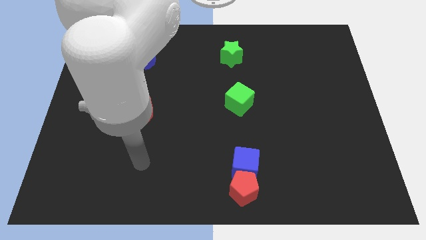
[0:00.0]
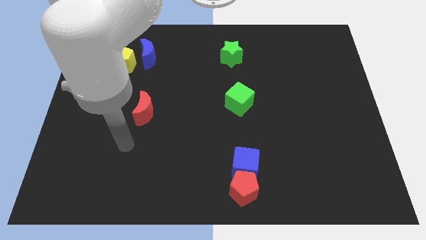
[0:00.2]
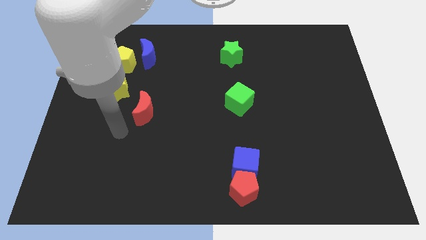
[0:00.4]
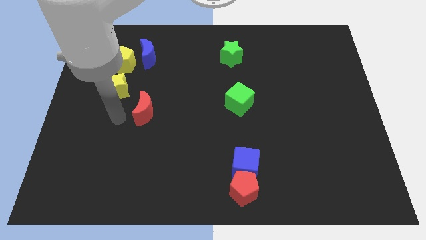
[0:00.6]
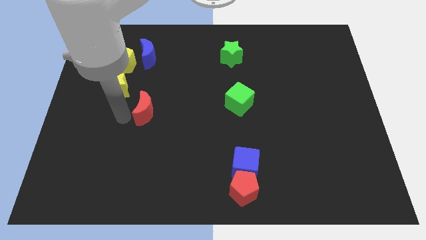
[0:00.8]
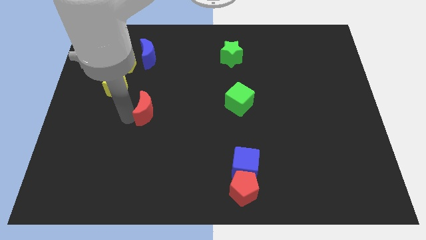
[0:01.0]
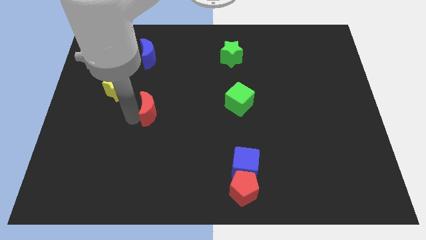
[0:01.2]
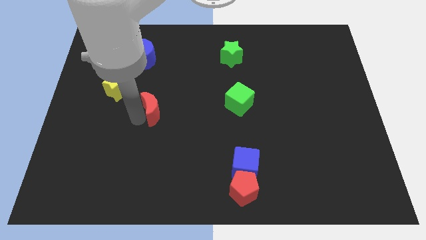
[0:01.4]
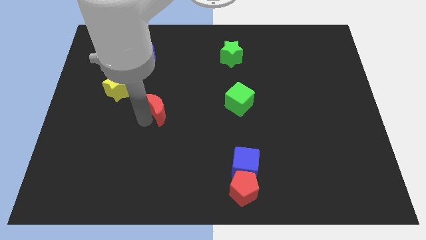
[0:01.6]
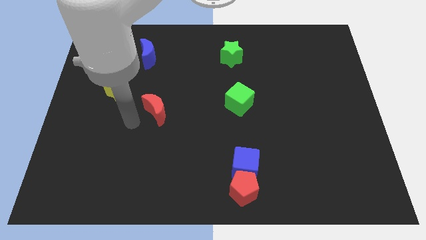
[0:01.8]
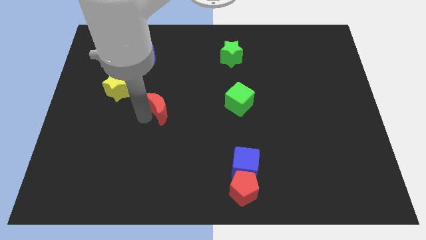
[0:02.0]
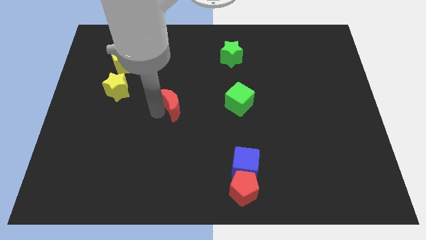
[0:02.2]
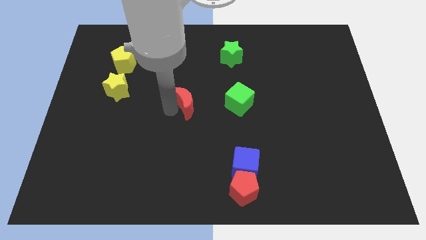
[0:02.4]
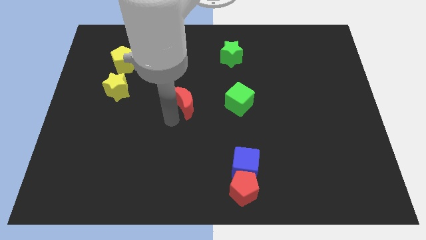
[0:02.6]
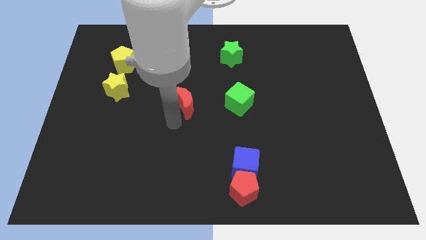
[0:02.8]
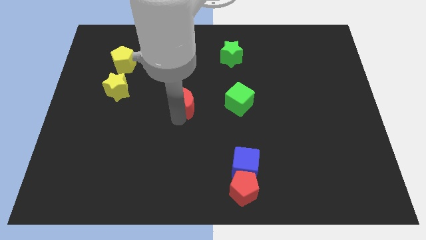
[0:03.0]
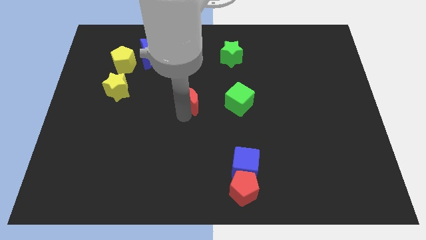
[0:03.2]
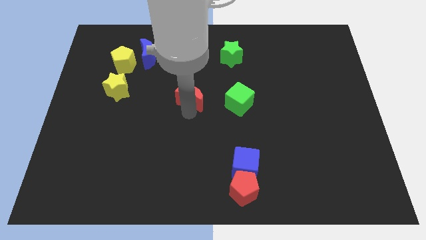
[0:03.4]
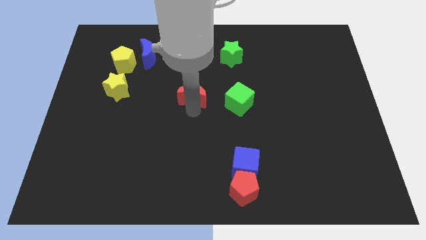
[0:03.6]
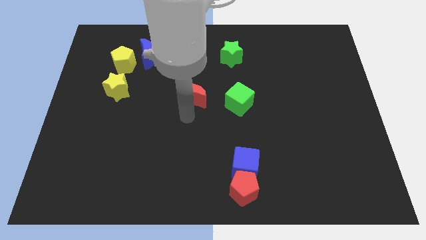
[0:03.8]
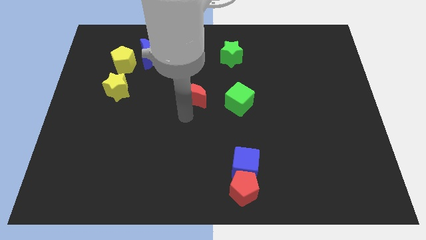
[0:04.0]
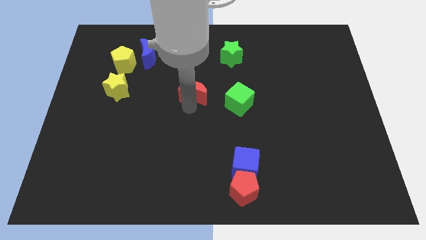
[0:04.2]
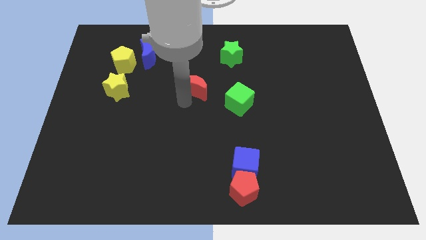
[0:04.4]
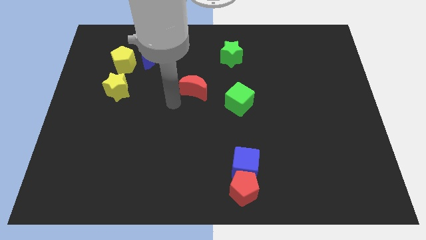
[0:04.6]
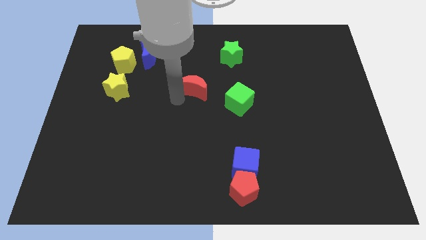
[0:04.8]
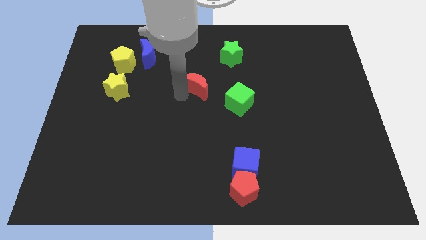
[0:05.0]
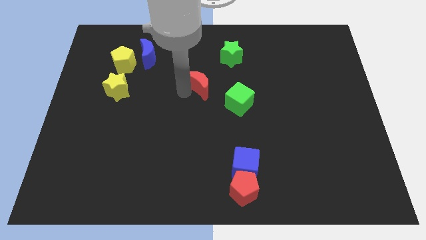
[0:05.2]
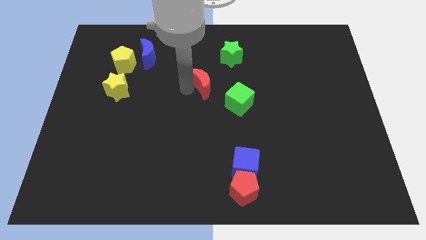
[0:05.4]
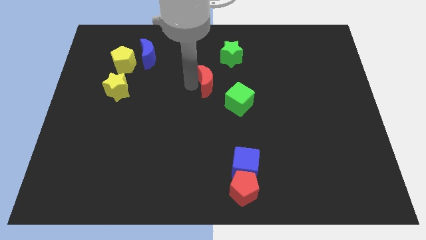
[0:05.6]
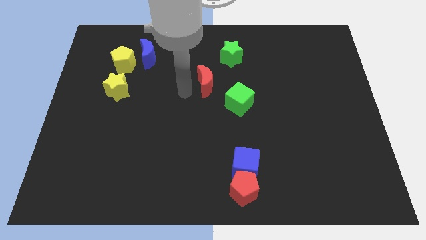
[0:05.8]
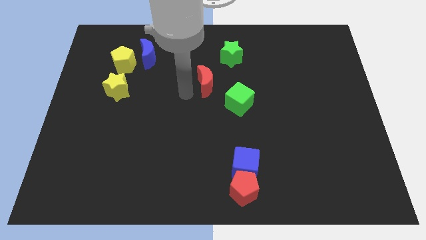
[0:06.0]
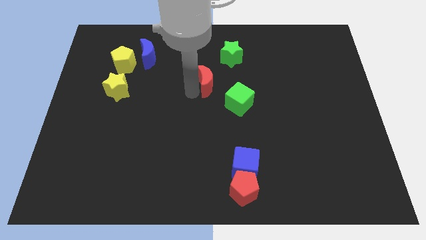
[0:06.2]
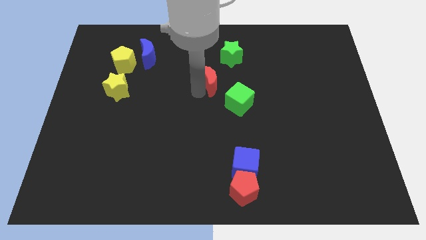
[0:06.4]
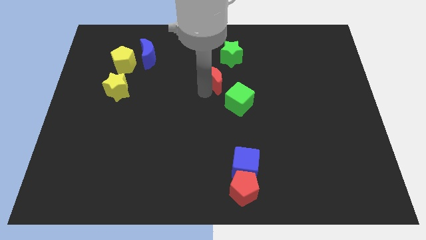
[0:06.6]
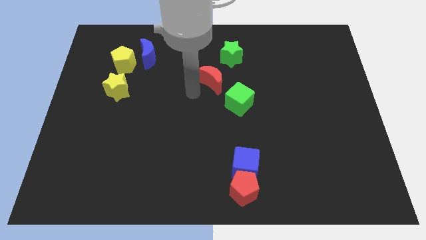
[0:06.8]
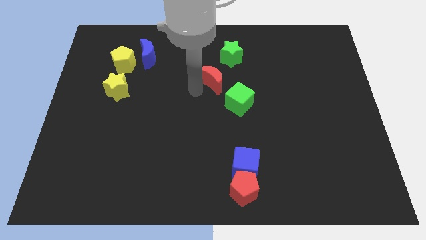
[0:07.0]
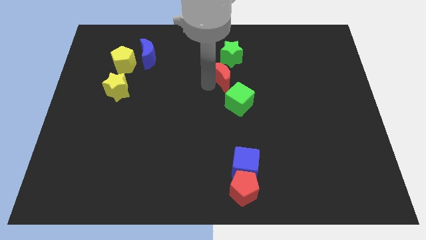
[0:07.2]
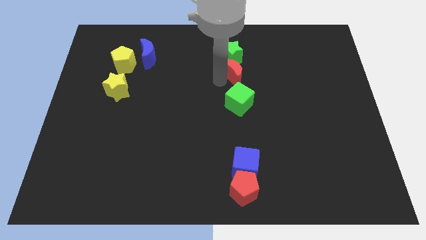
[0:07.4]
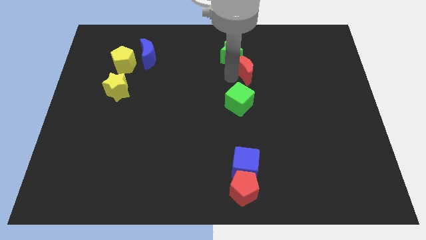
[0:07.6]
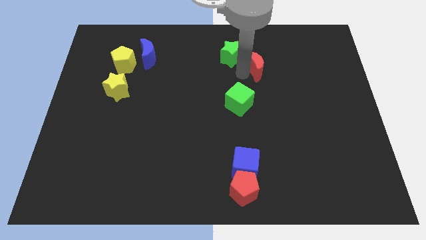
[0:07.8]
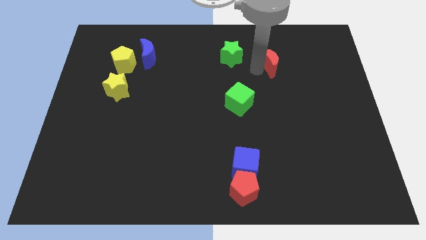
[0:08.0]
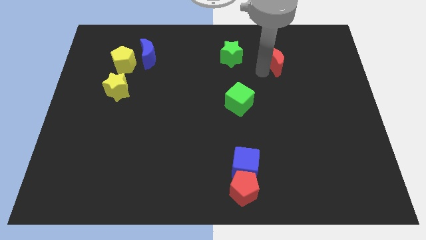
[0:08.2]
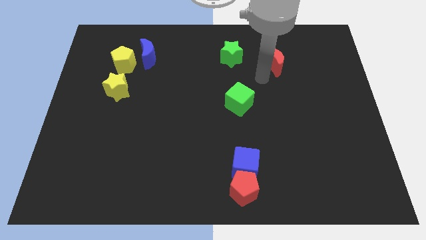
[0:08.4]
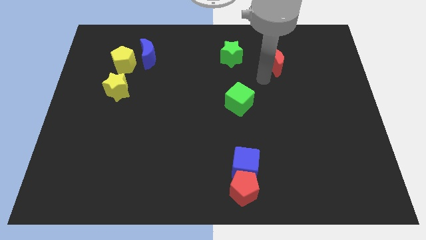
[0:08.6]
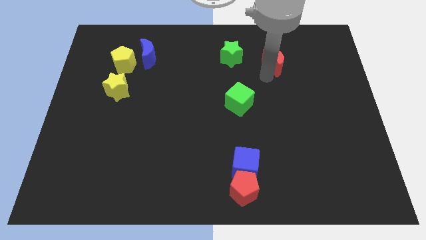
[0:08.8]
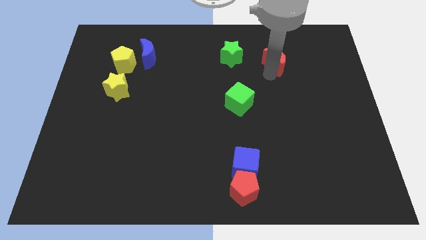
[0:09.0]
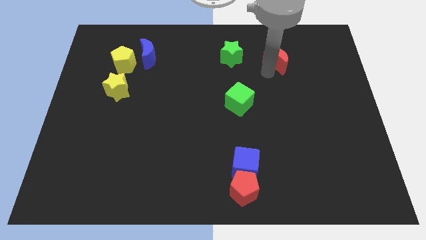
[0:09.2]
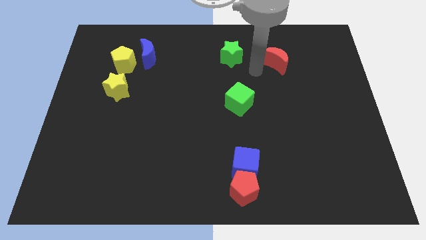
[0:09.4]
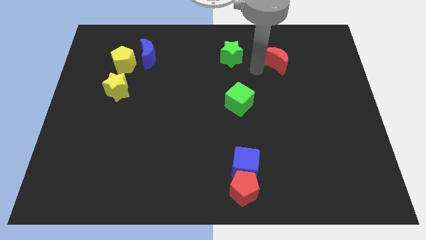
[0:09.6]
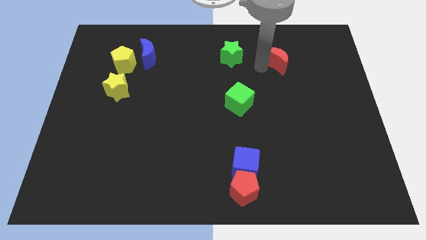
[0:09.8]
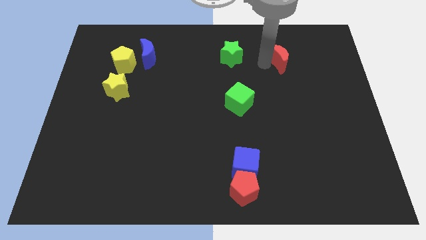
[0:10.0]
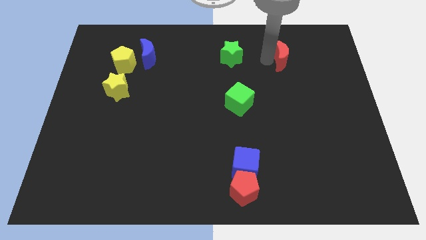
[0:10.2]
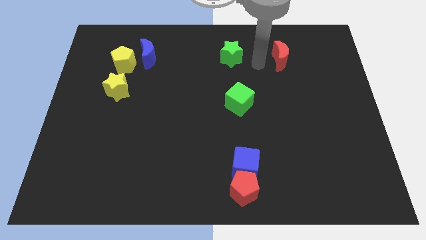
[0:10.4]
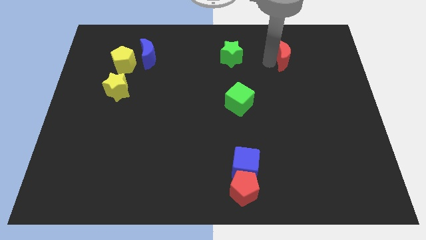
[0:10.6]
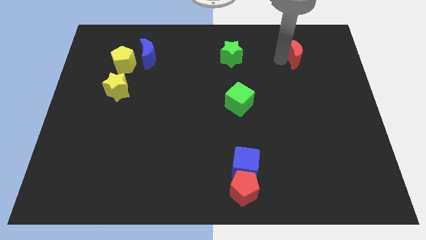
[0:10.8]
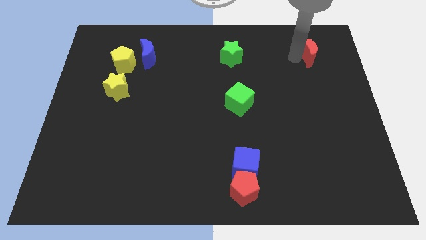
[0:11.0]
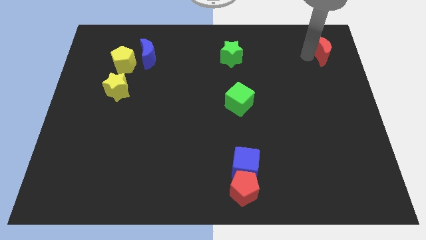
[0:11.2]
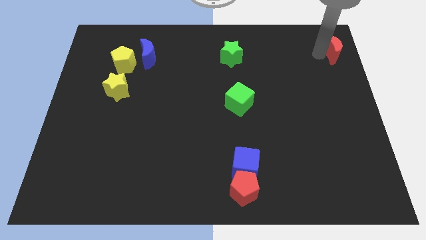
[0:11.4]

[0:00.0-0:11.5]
push the red moon to the upper right corner

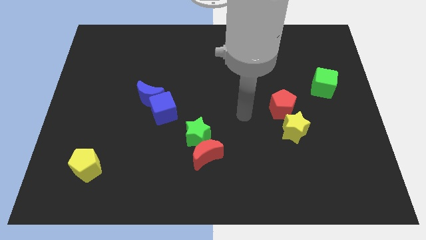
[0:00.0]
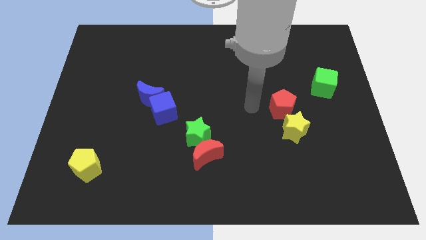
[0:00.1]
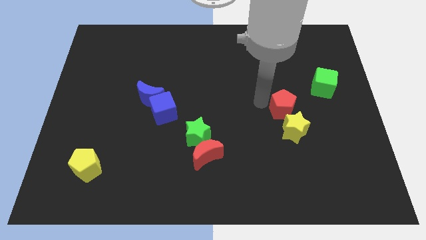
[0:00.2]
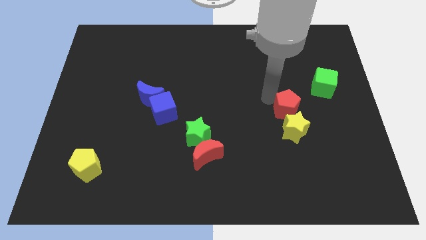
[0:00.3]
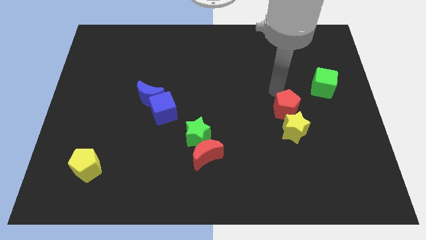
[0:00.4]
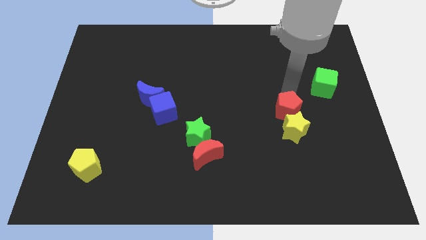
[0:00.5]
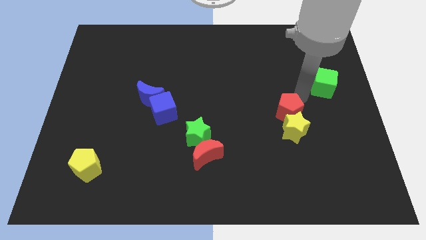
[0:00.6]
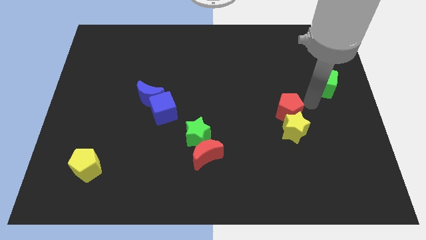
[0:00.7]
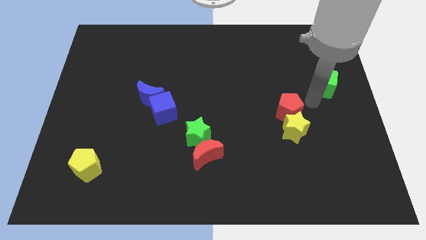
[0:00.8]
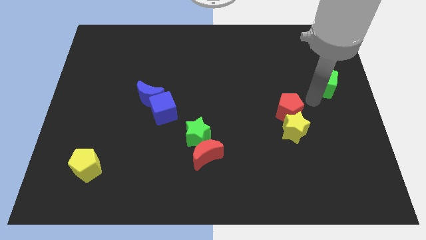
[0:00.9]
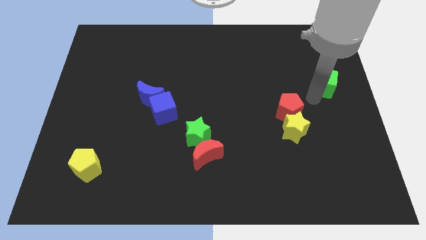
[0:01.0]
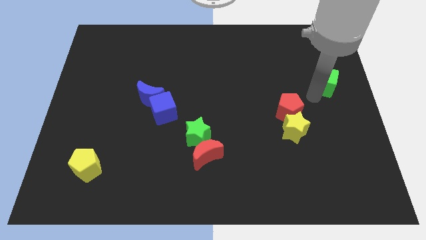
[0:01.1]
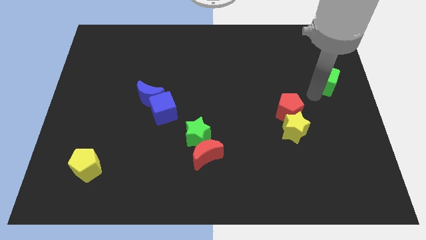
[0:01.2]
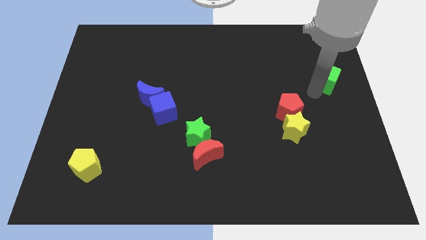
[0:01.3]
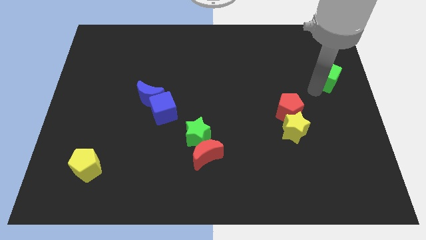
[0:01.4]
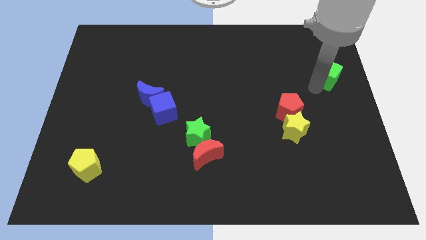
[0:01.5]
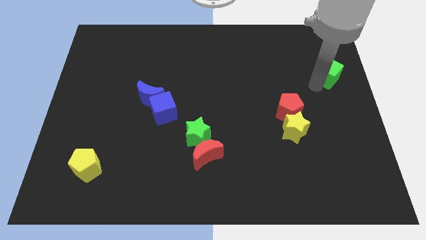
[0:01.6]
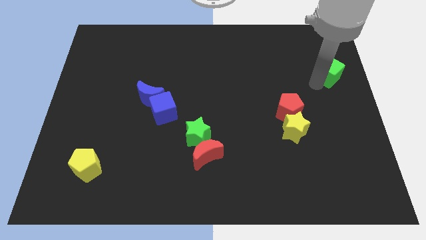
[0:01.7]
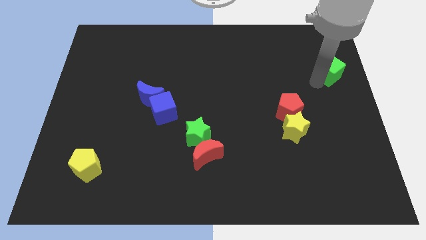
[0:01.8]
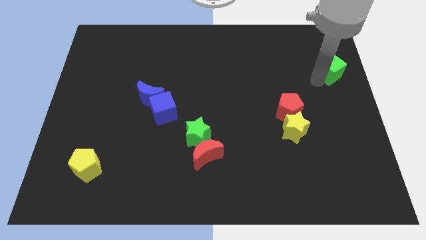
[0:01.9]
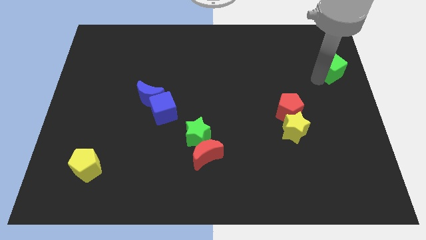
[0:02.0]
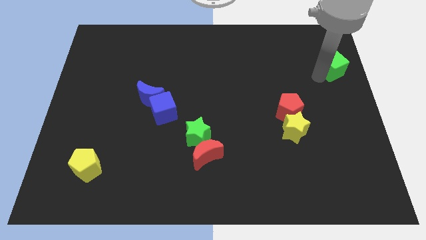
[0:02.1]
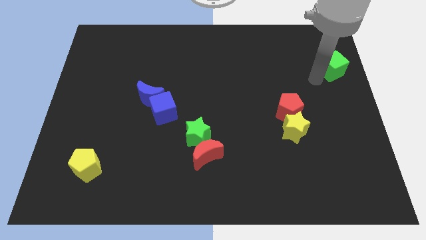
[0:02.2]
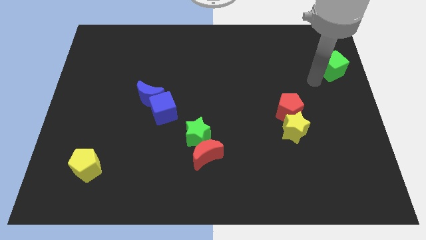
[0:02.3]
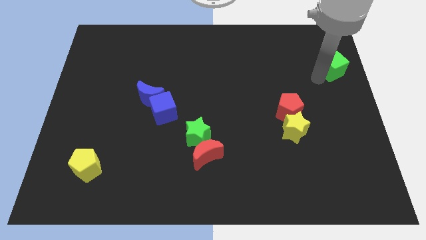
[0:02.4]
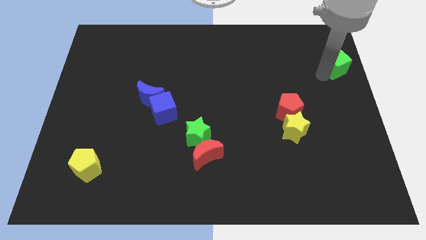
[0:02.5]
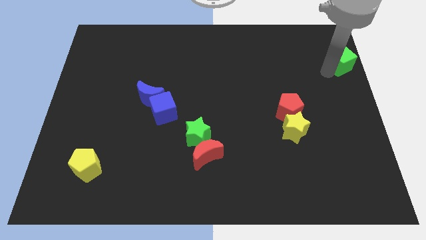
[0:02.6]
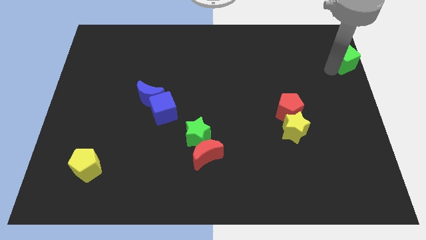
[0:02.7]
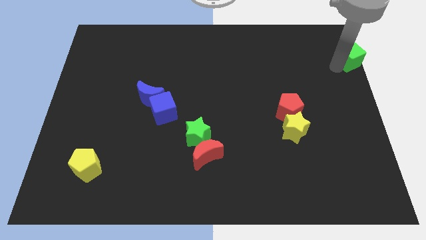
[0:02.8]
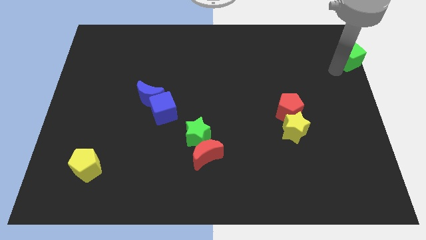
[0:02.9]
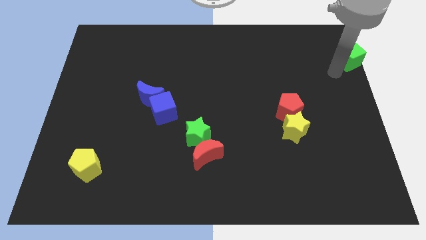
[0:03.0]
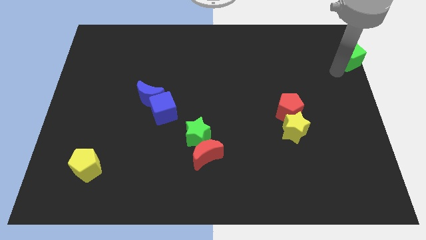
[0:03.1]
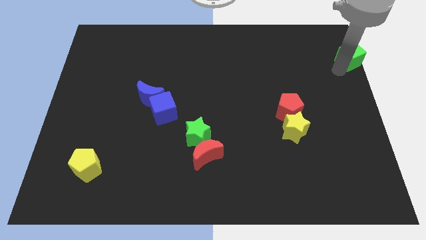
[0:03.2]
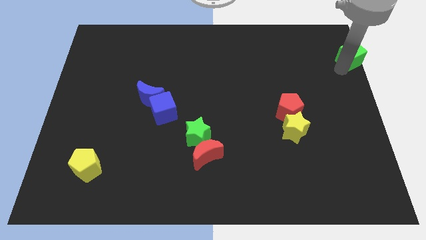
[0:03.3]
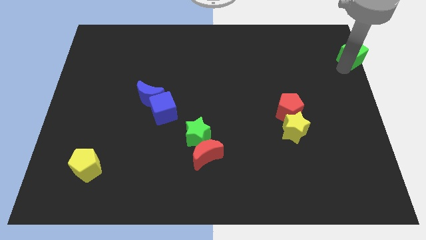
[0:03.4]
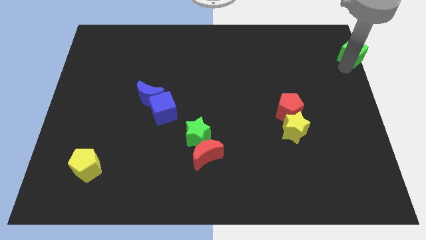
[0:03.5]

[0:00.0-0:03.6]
slide the green cube to the top right
